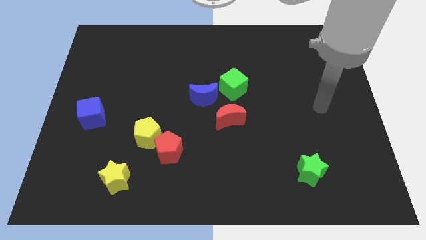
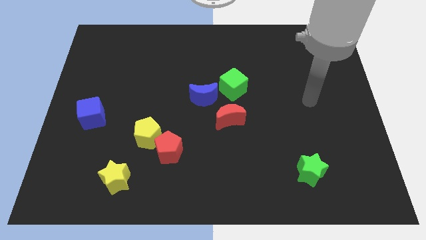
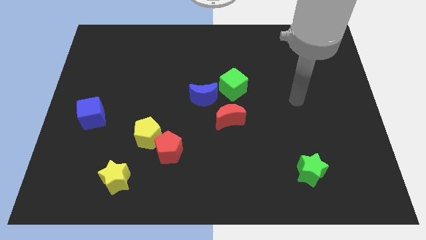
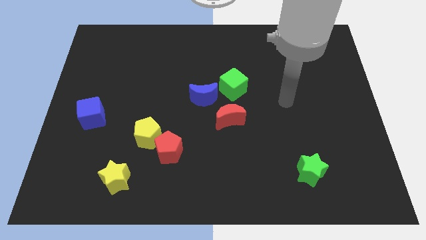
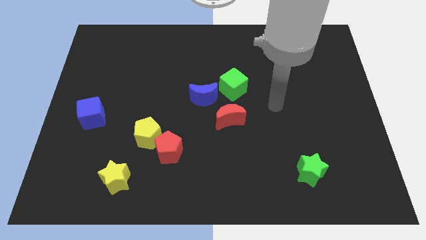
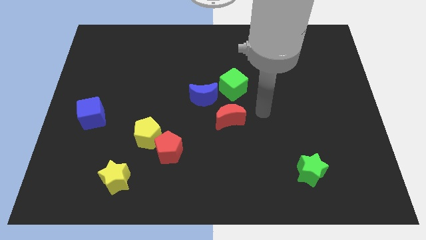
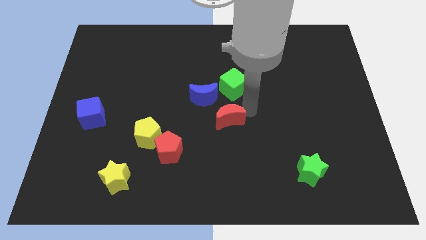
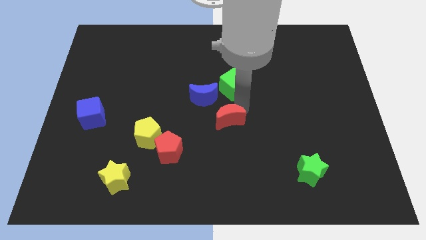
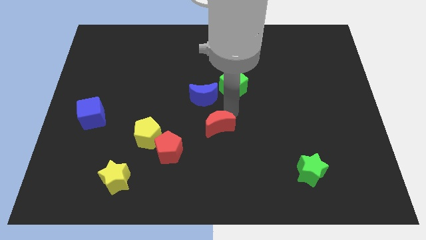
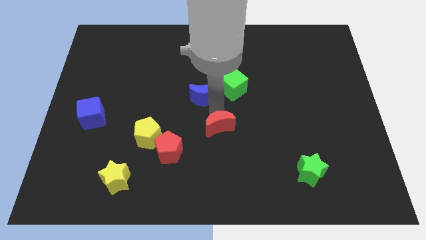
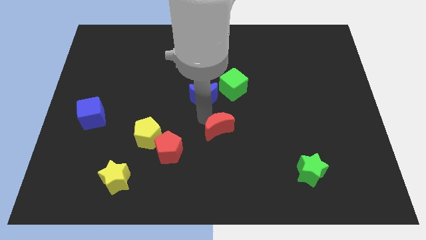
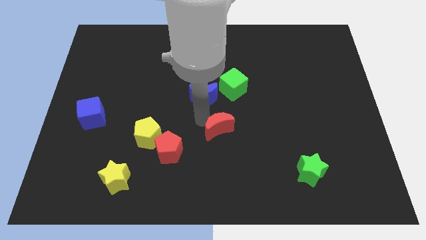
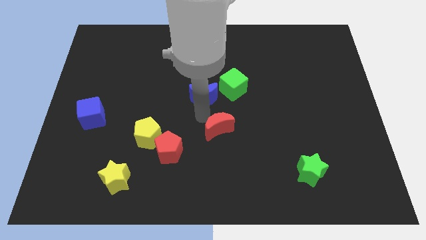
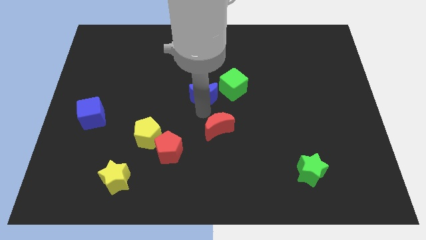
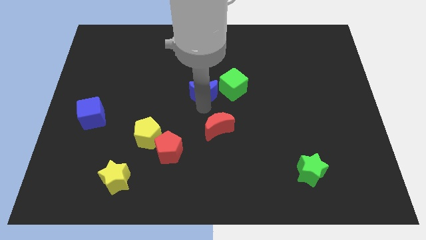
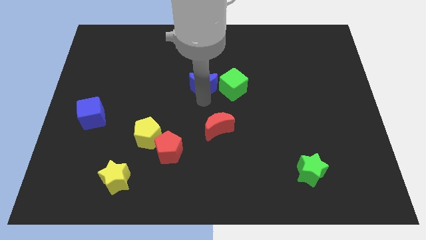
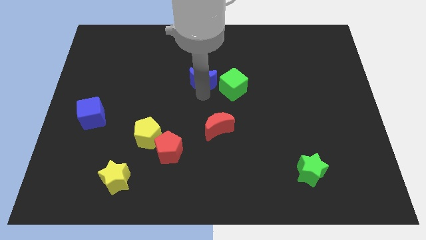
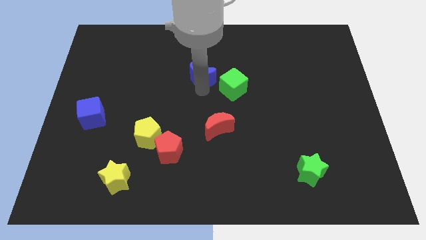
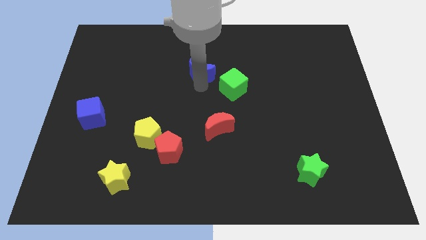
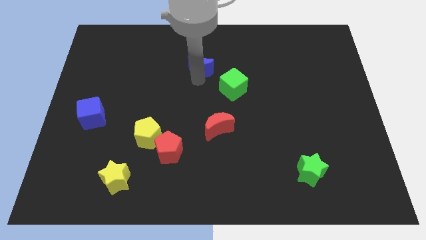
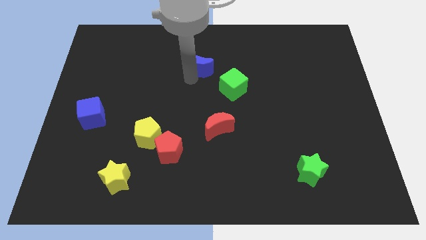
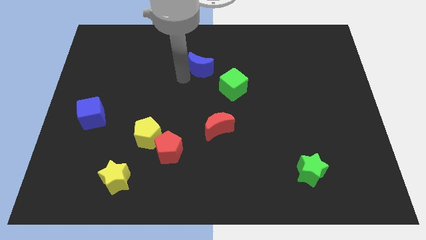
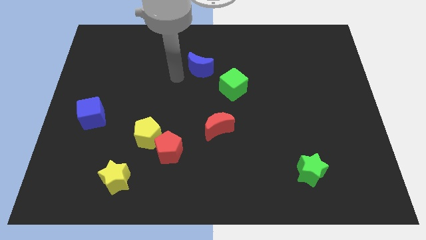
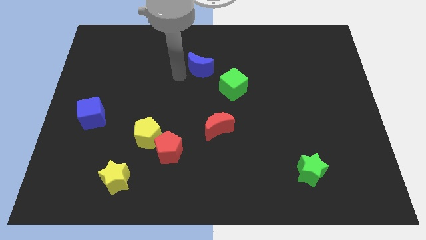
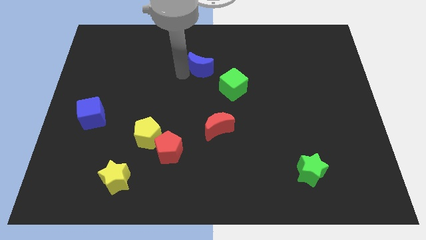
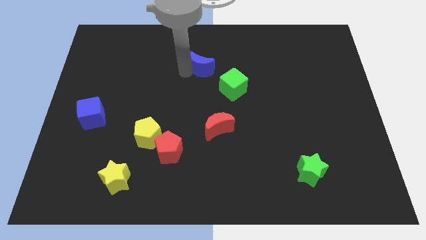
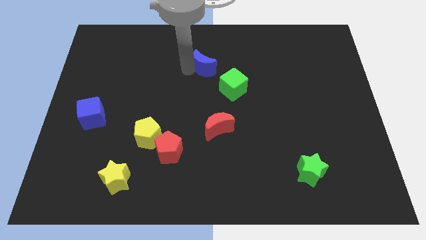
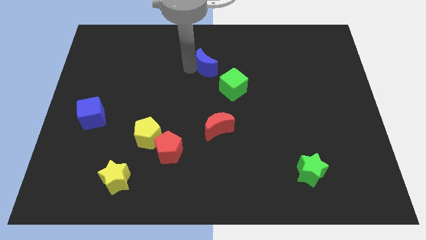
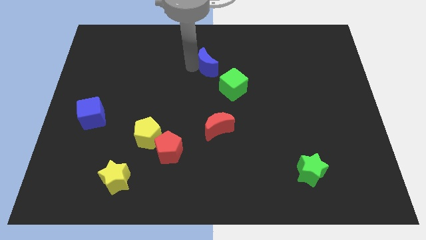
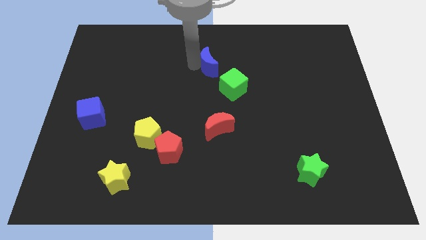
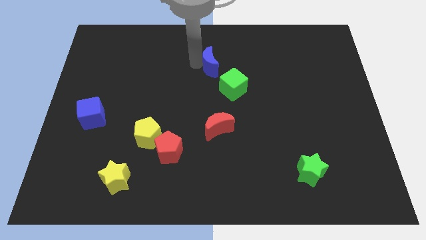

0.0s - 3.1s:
slide the blue moon upwards and right somewhat

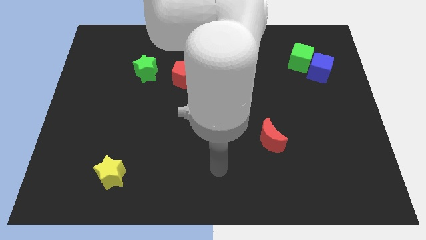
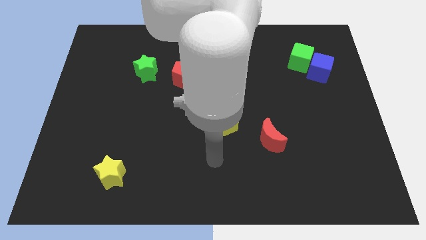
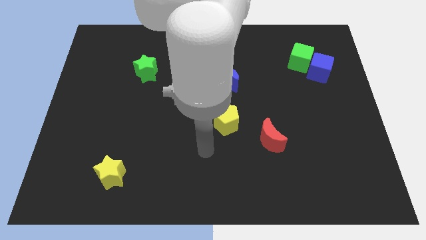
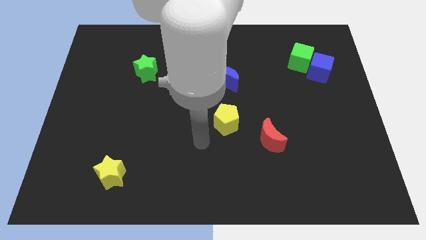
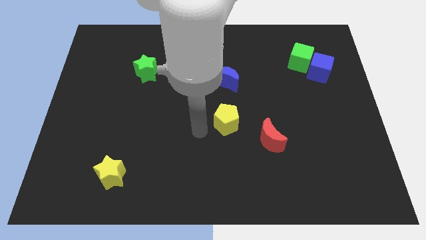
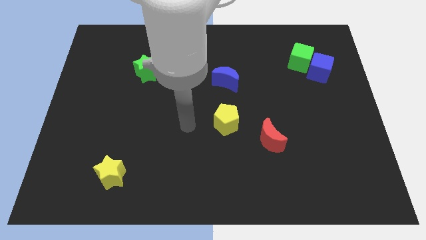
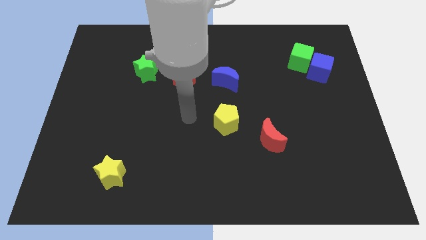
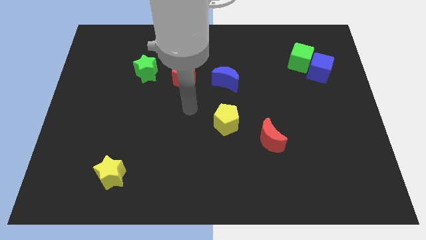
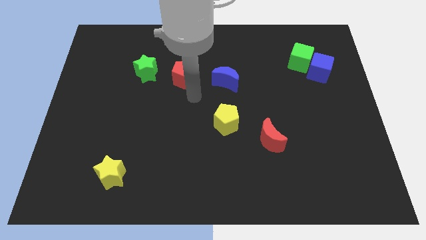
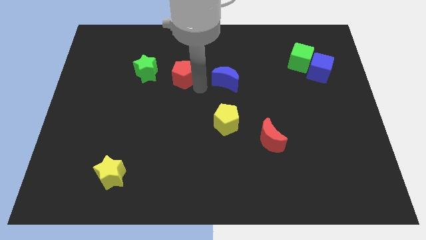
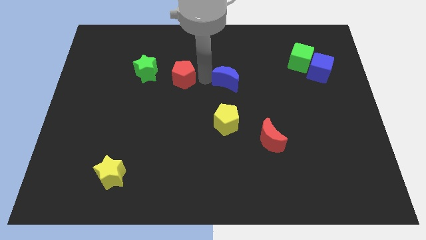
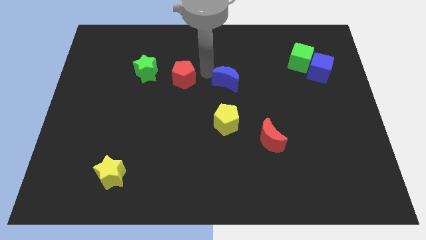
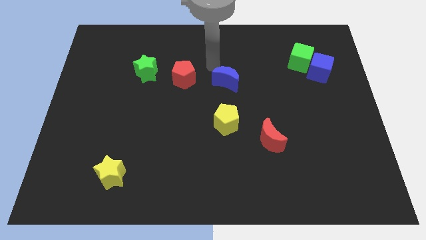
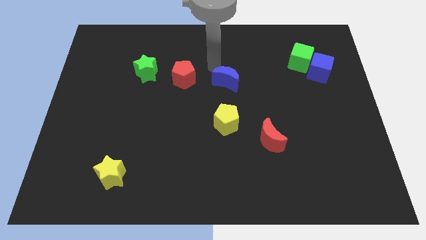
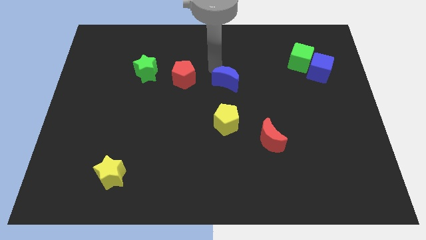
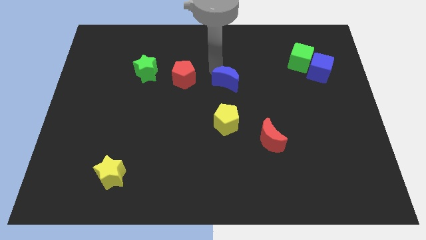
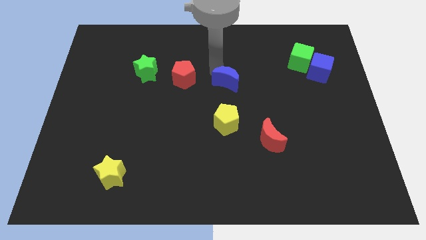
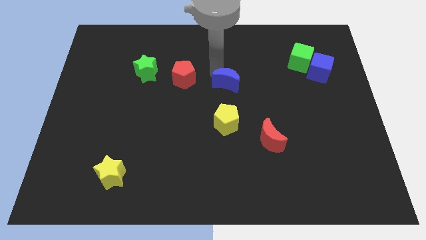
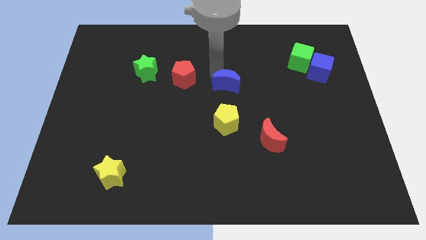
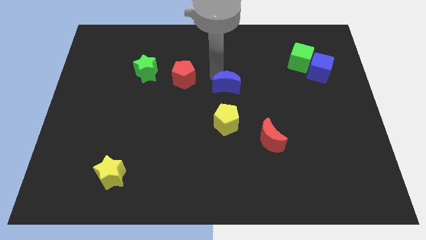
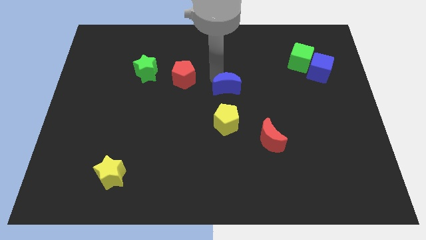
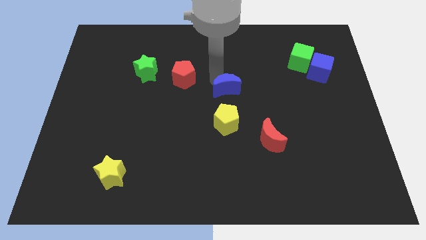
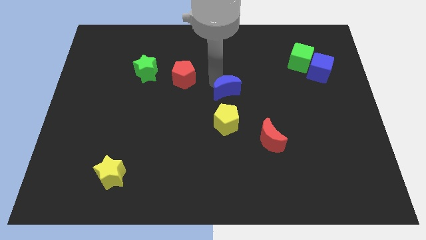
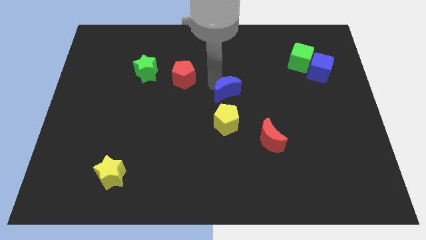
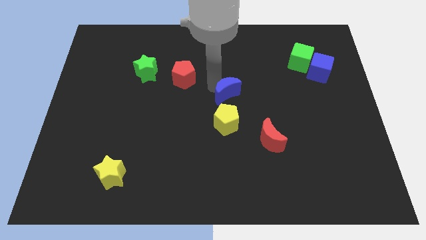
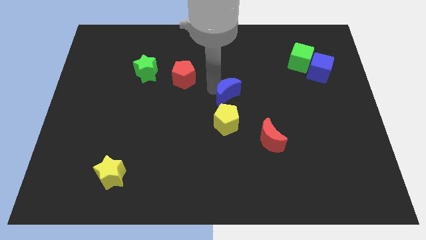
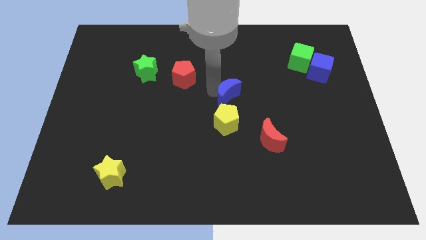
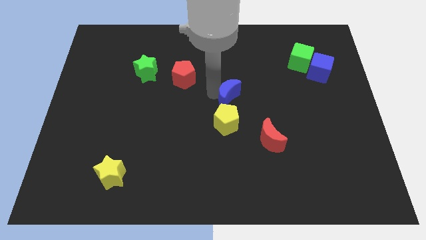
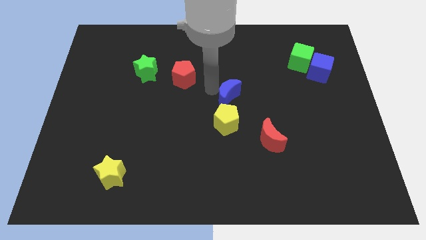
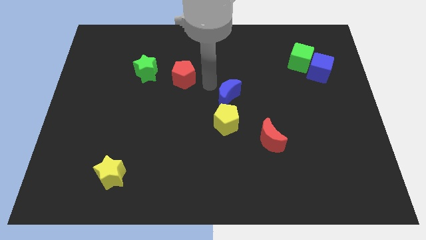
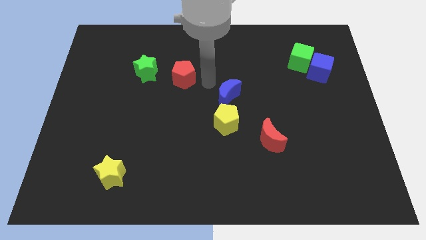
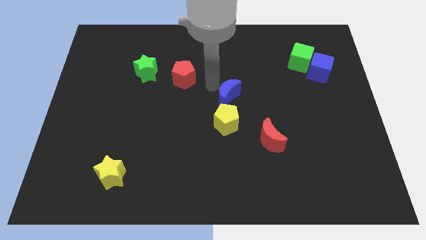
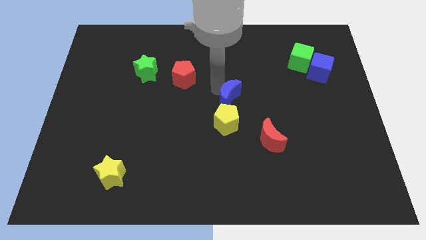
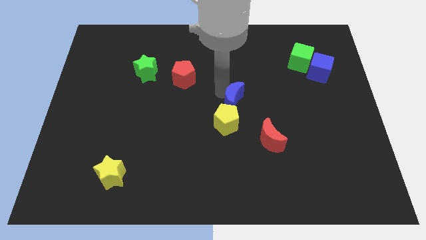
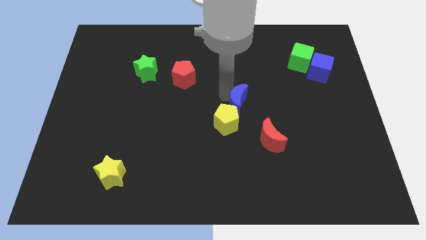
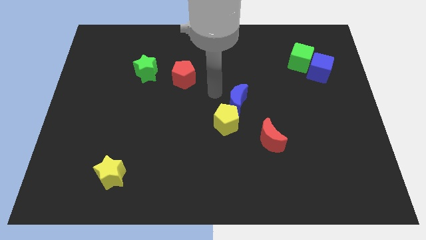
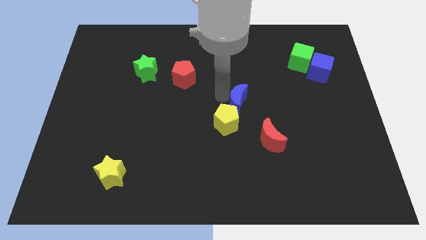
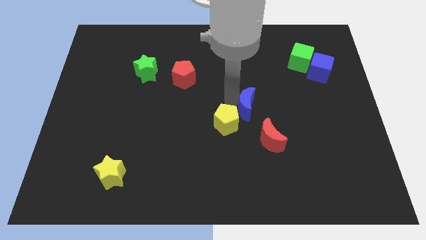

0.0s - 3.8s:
push the blue moon somewhat diagonally down and to the right

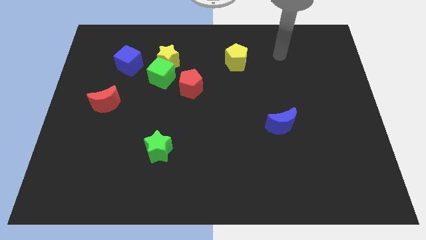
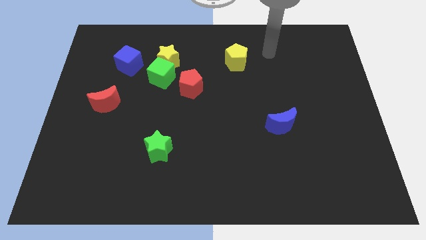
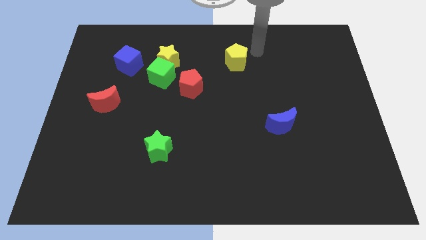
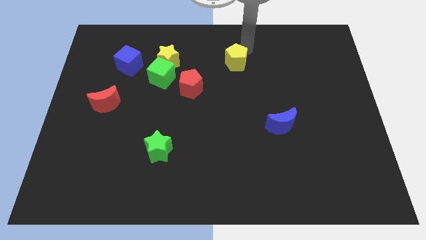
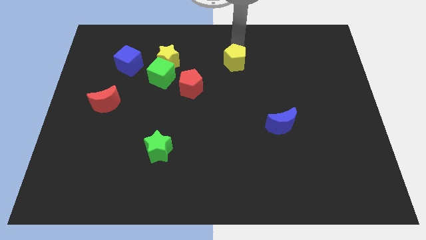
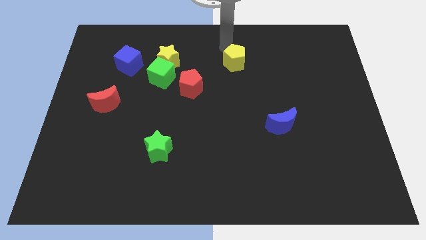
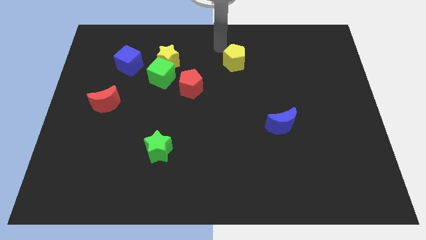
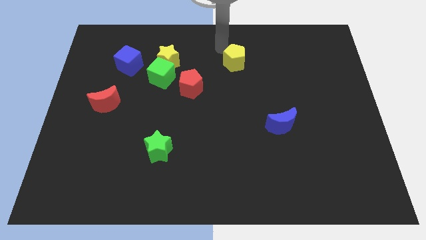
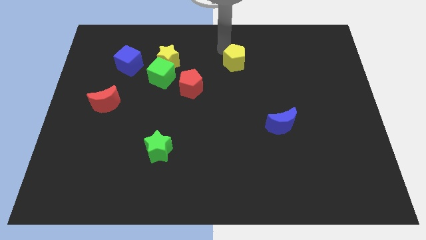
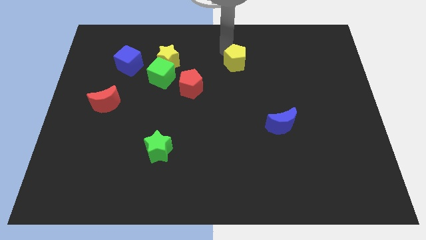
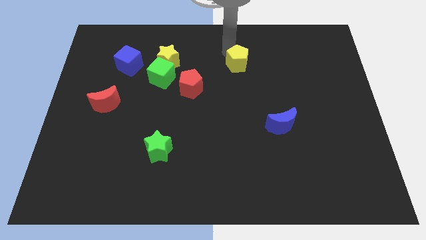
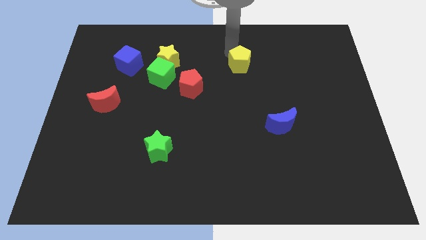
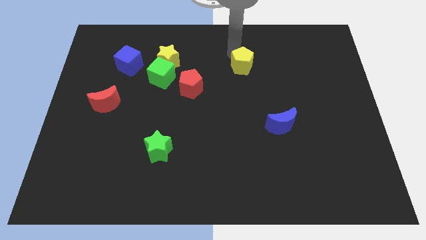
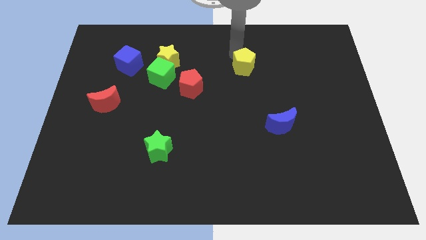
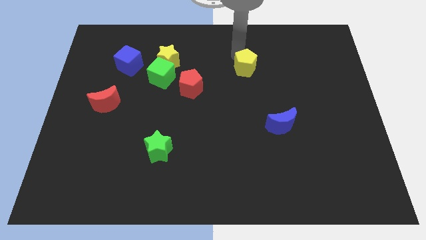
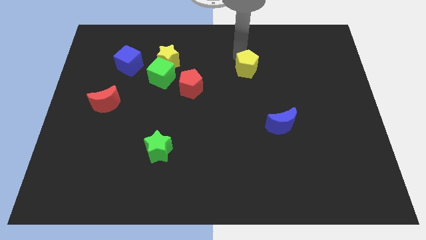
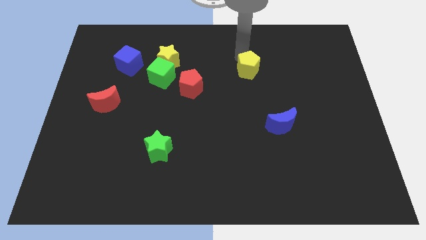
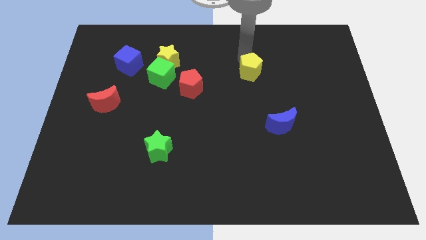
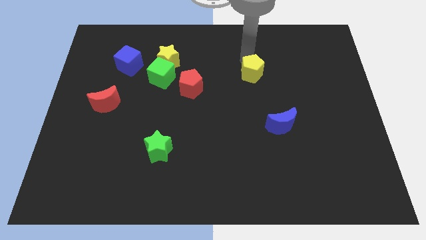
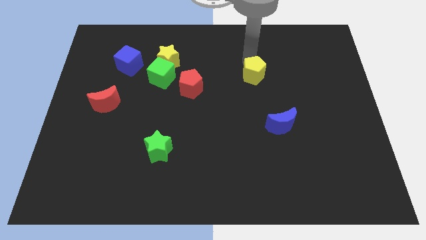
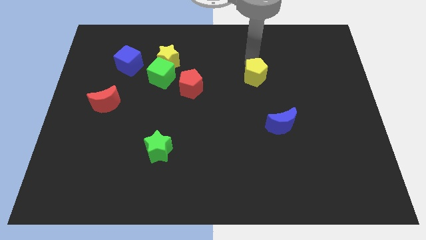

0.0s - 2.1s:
slightly slide the yellow pentagon down and to the right
